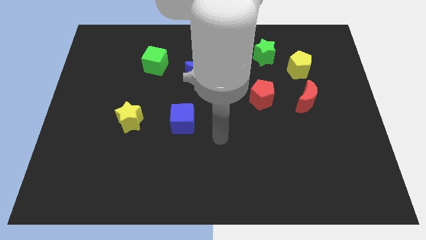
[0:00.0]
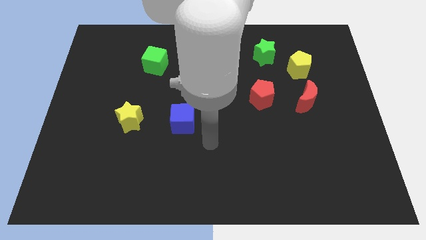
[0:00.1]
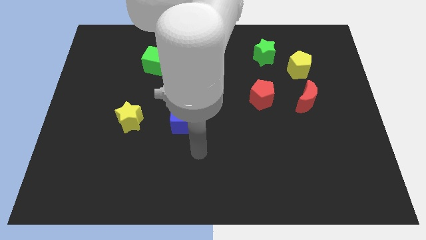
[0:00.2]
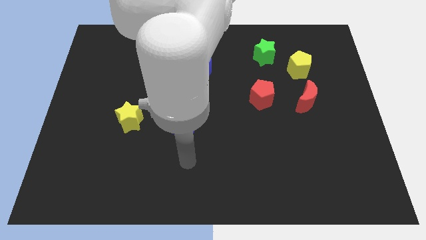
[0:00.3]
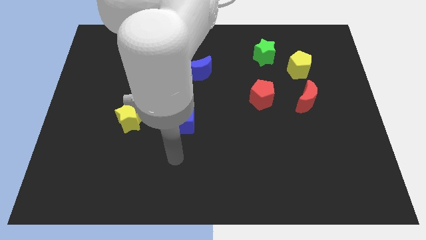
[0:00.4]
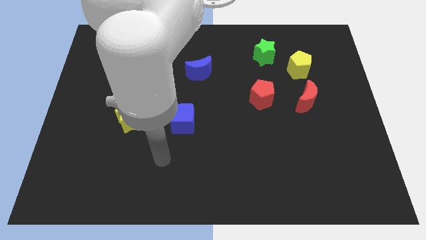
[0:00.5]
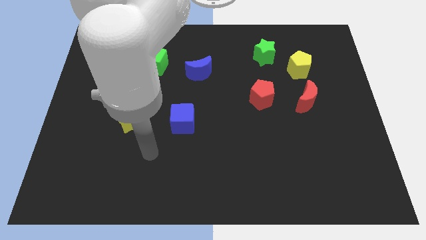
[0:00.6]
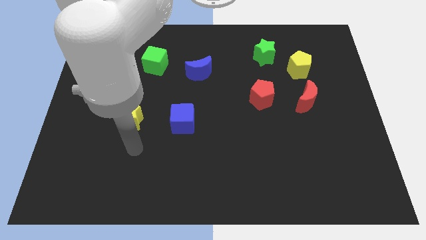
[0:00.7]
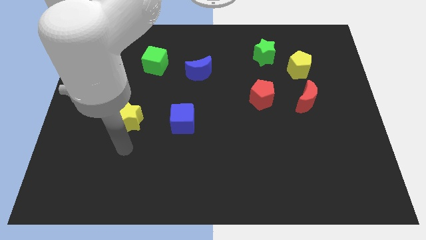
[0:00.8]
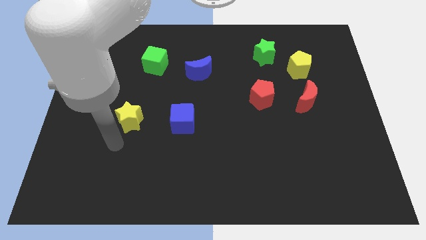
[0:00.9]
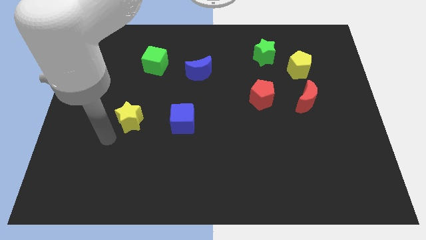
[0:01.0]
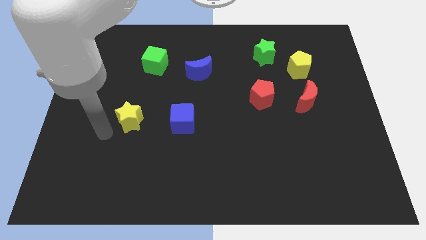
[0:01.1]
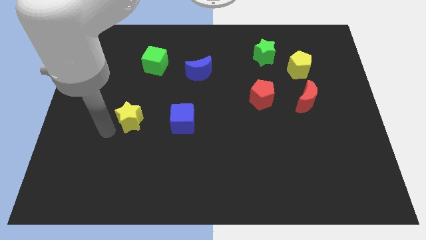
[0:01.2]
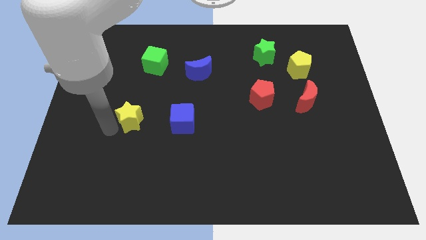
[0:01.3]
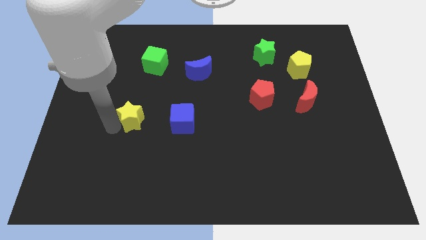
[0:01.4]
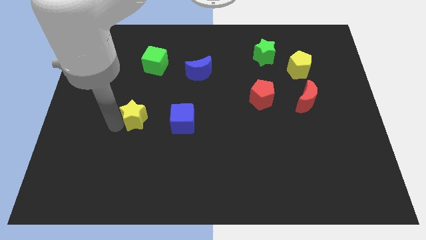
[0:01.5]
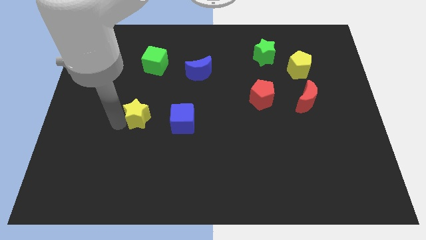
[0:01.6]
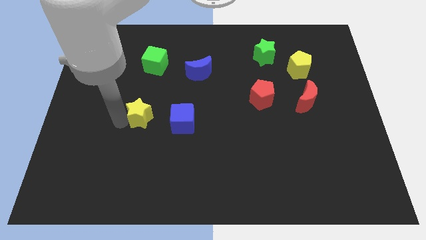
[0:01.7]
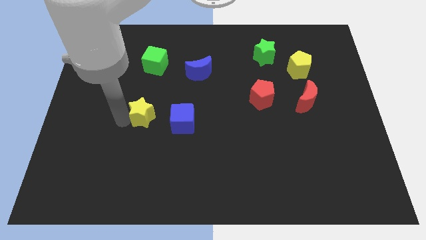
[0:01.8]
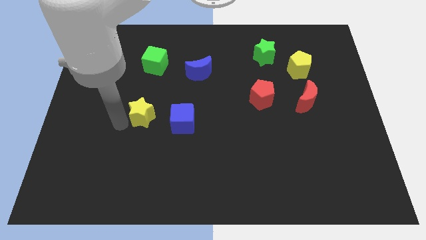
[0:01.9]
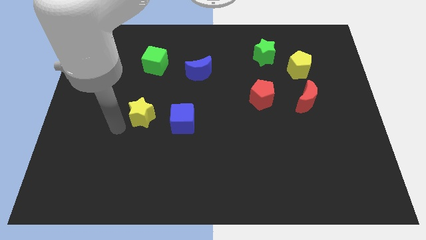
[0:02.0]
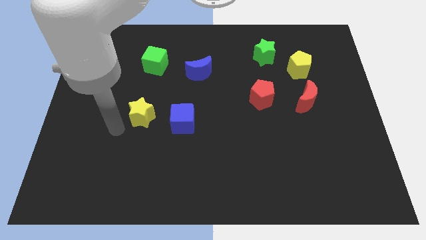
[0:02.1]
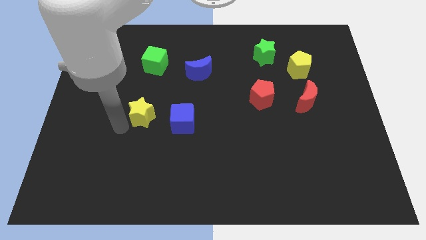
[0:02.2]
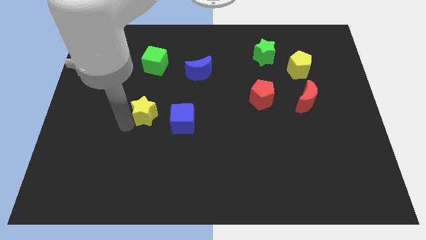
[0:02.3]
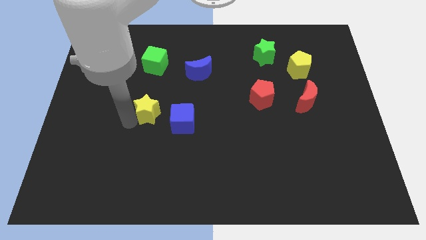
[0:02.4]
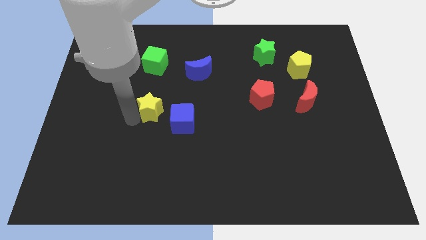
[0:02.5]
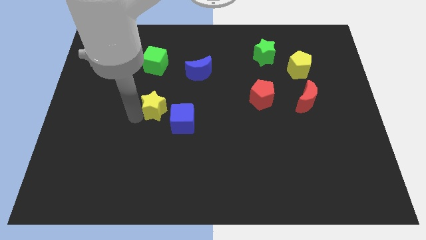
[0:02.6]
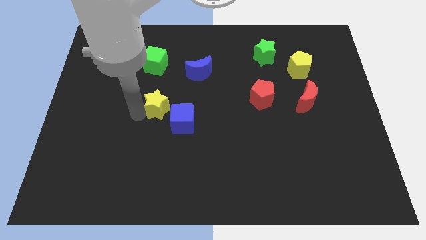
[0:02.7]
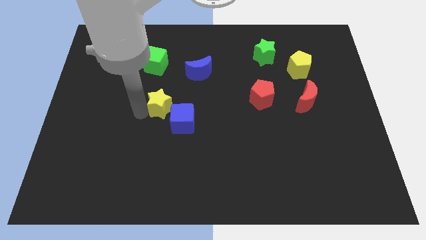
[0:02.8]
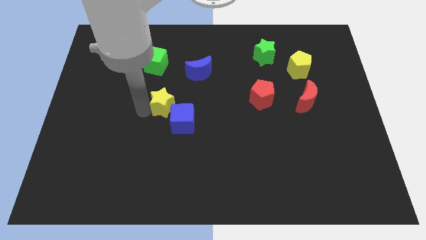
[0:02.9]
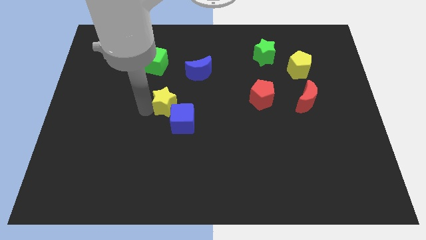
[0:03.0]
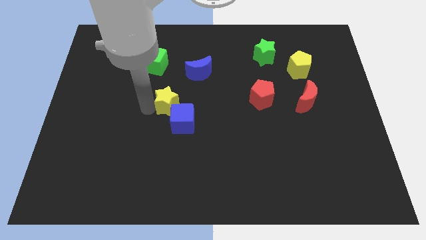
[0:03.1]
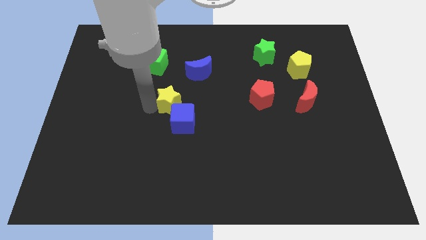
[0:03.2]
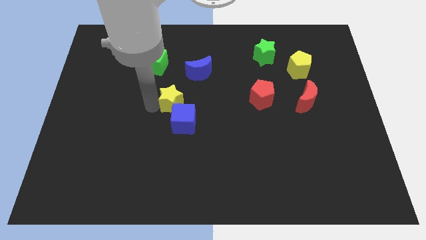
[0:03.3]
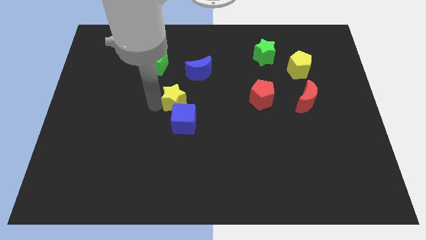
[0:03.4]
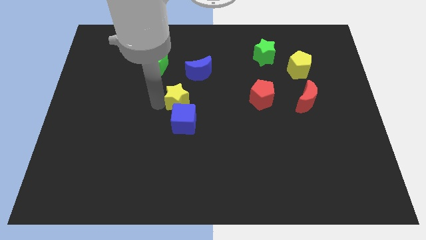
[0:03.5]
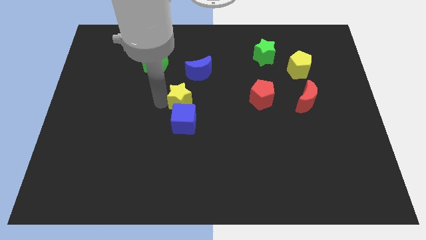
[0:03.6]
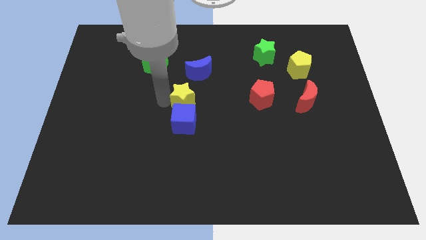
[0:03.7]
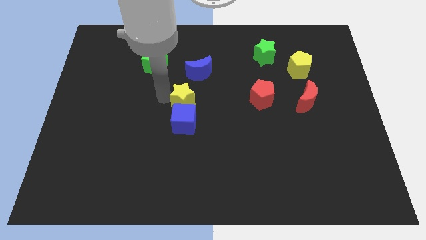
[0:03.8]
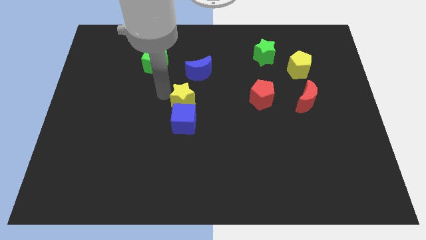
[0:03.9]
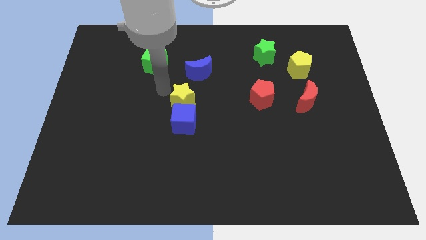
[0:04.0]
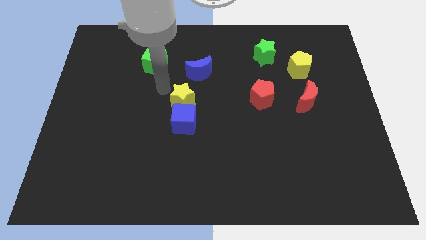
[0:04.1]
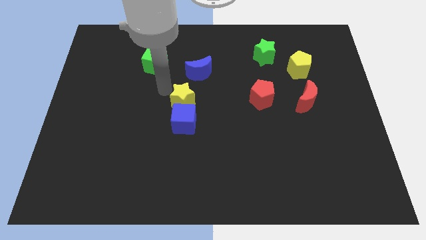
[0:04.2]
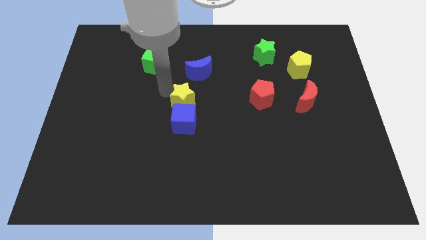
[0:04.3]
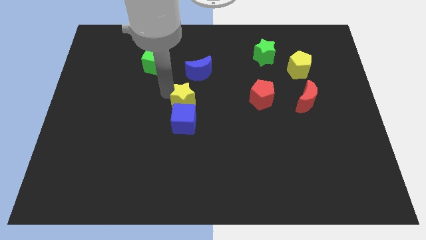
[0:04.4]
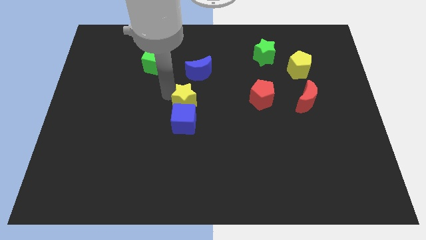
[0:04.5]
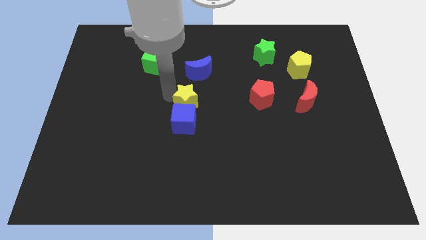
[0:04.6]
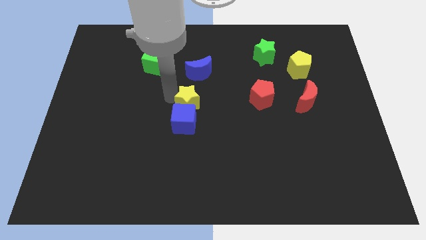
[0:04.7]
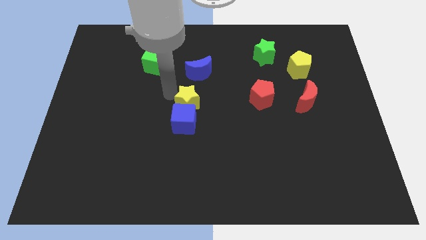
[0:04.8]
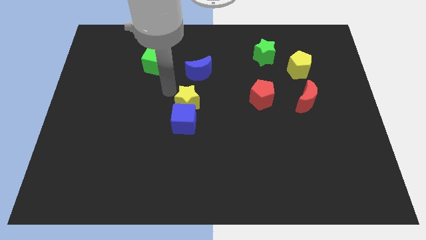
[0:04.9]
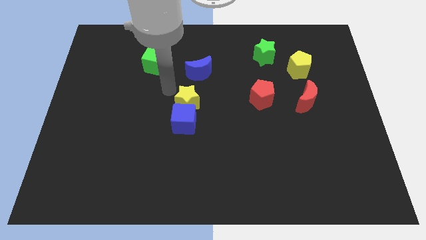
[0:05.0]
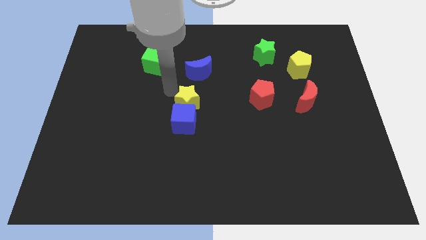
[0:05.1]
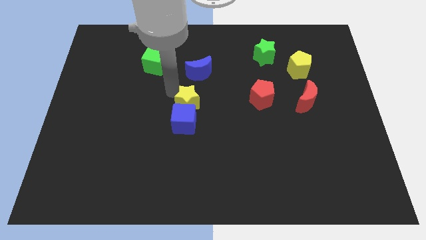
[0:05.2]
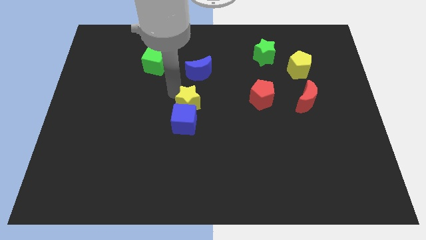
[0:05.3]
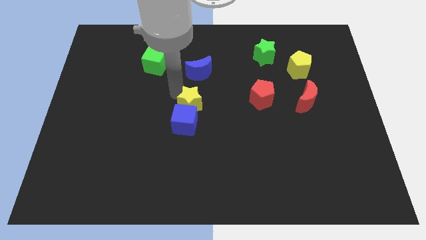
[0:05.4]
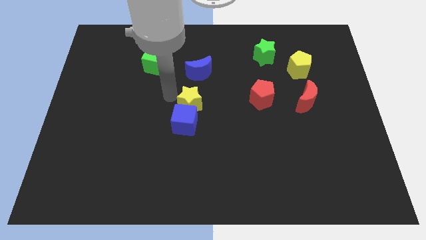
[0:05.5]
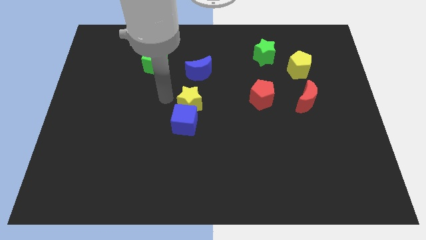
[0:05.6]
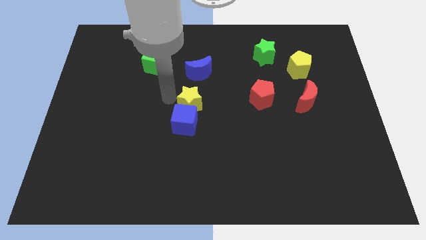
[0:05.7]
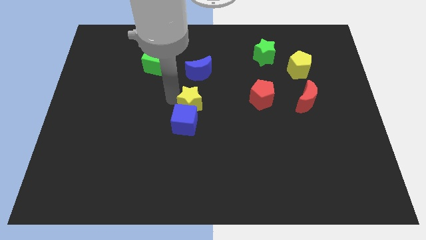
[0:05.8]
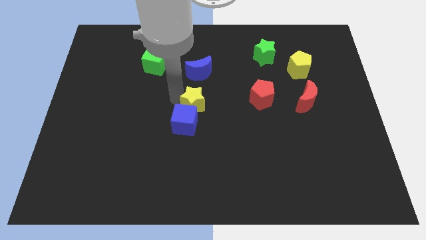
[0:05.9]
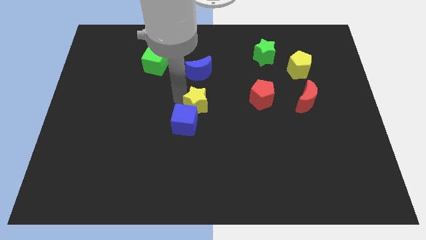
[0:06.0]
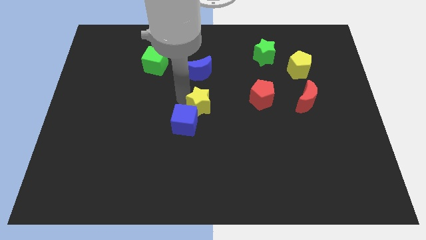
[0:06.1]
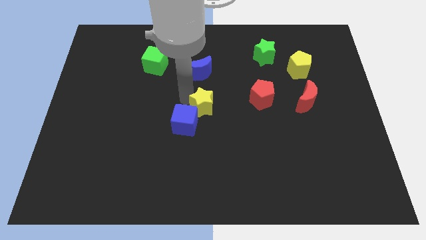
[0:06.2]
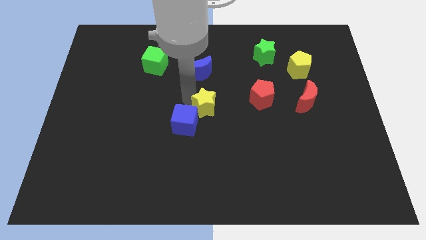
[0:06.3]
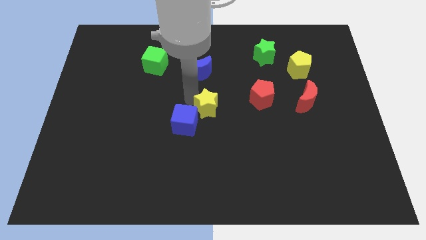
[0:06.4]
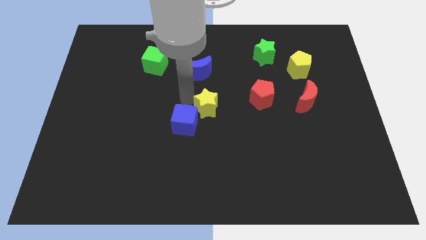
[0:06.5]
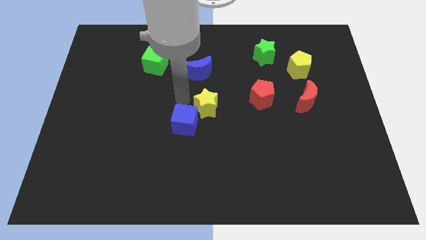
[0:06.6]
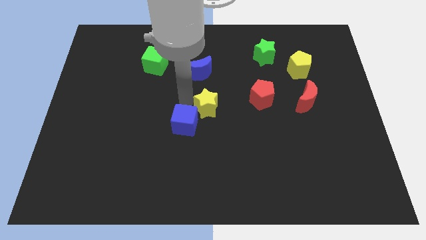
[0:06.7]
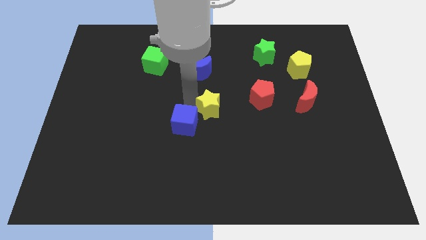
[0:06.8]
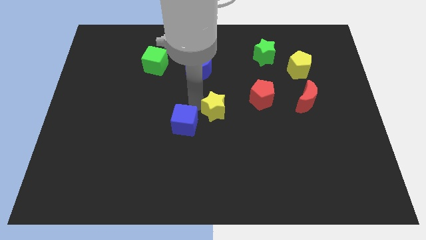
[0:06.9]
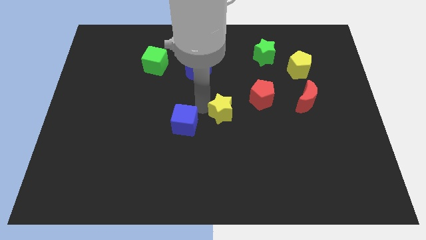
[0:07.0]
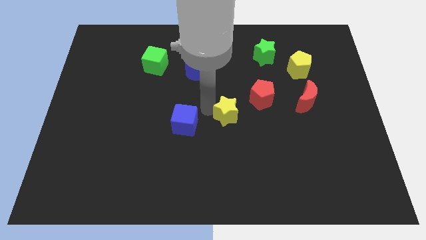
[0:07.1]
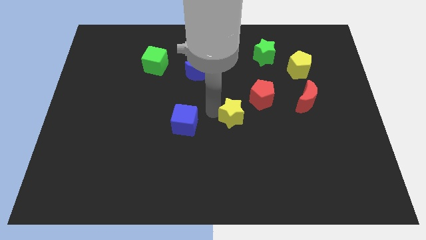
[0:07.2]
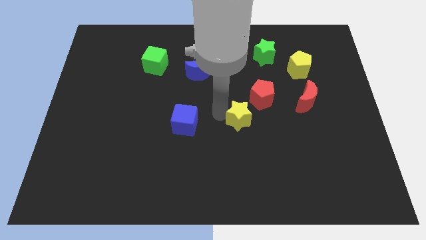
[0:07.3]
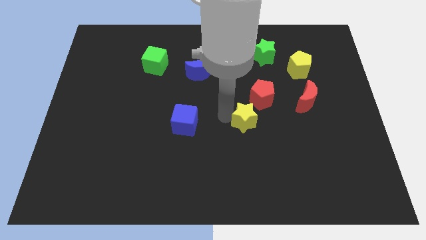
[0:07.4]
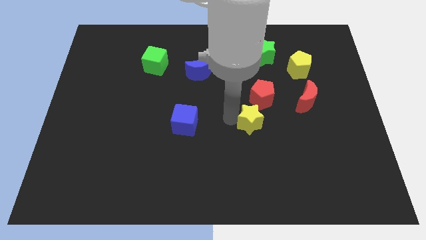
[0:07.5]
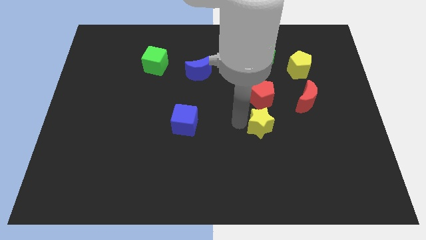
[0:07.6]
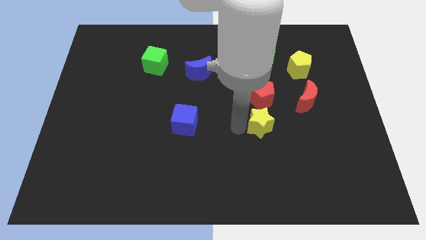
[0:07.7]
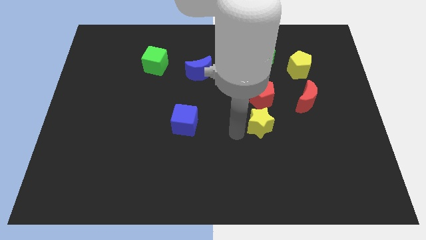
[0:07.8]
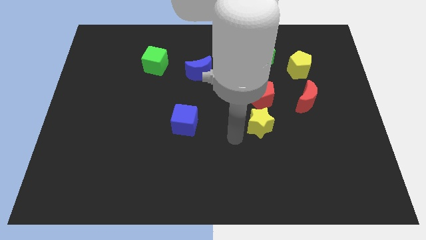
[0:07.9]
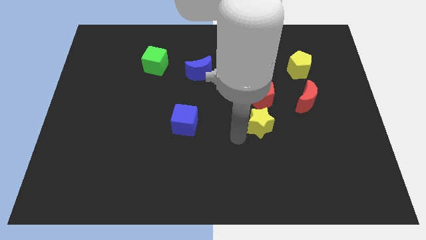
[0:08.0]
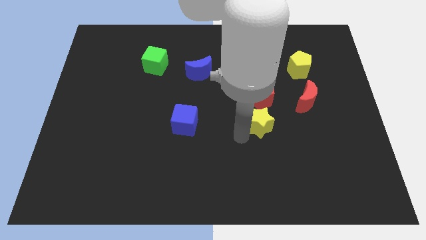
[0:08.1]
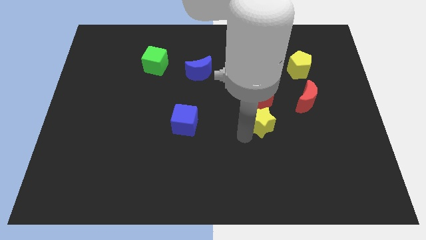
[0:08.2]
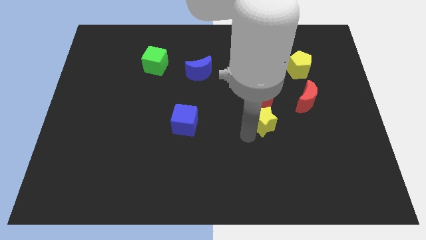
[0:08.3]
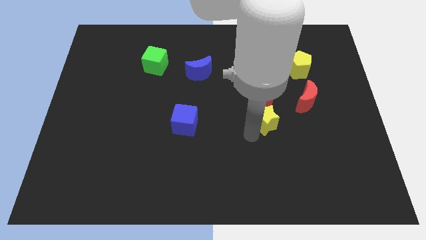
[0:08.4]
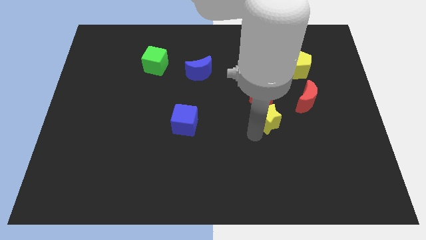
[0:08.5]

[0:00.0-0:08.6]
push the yellow star to the bottom right of the red pentagon
